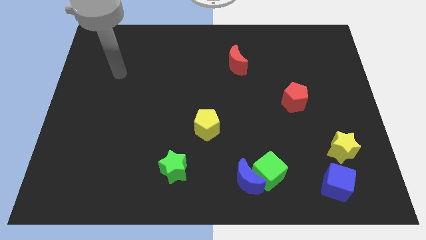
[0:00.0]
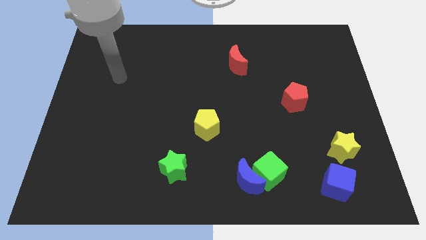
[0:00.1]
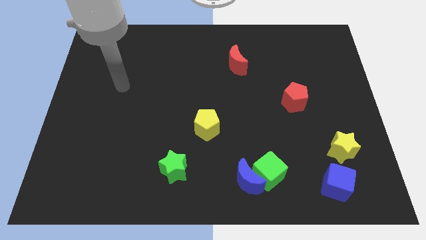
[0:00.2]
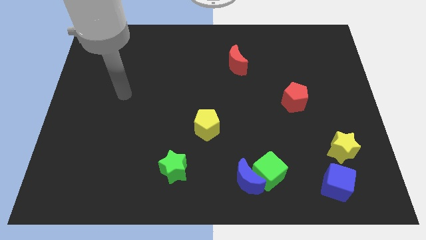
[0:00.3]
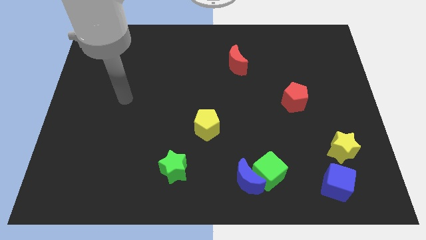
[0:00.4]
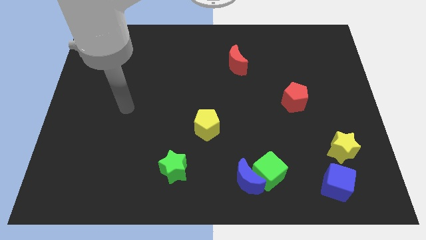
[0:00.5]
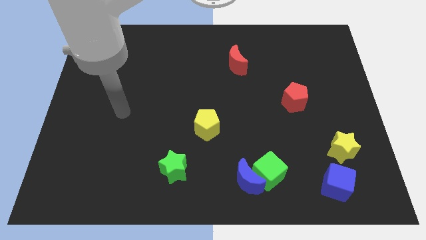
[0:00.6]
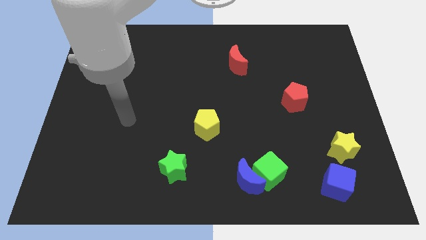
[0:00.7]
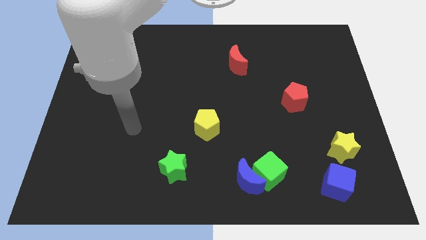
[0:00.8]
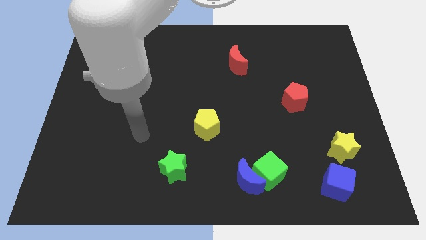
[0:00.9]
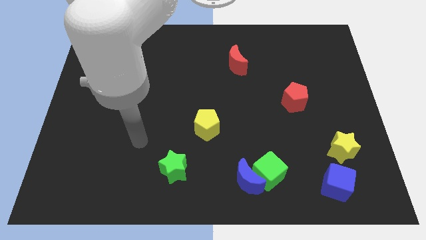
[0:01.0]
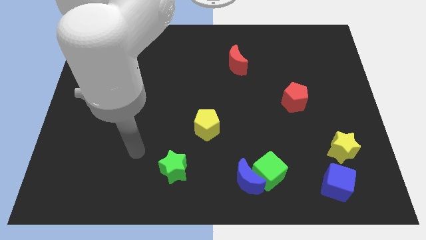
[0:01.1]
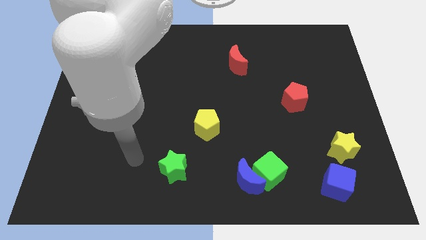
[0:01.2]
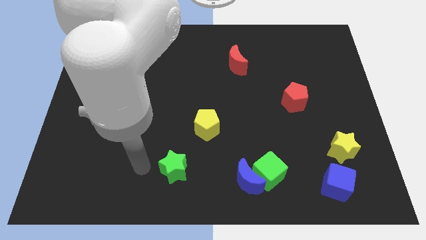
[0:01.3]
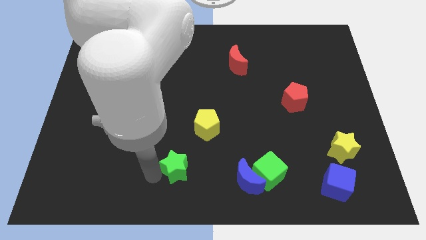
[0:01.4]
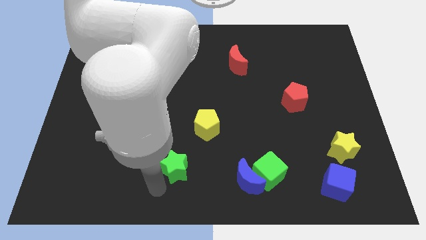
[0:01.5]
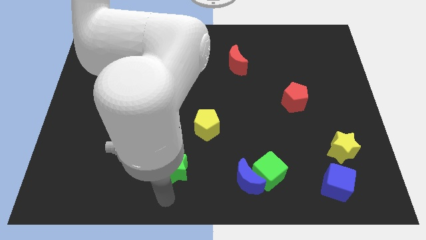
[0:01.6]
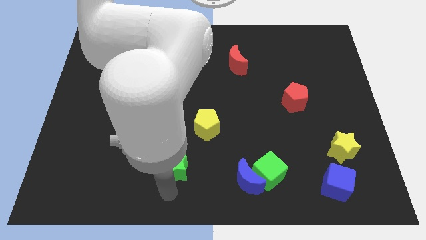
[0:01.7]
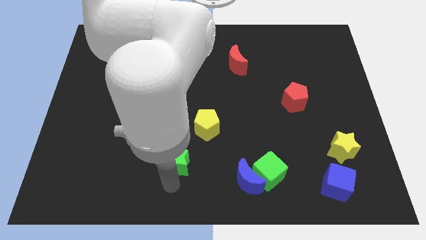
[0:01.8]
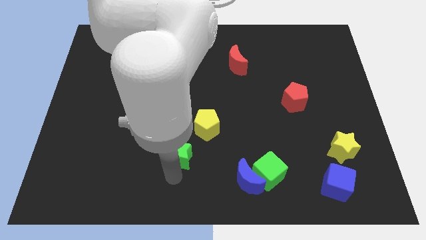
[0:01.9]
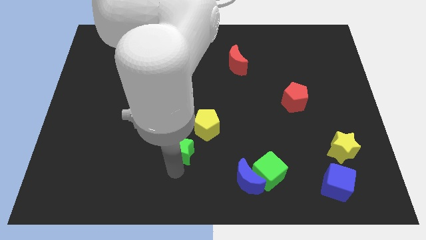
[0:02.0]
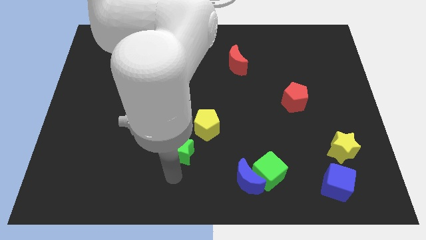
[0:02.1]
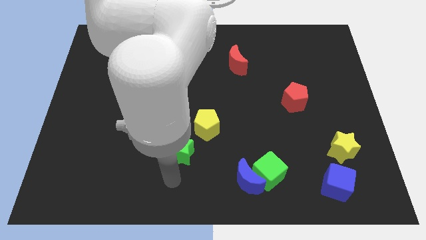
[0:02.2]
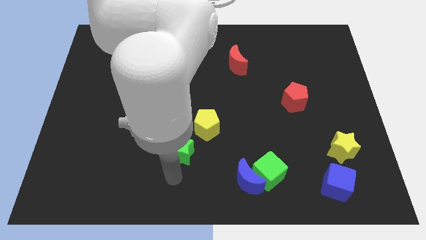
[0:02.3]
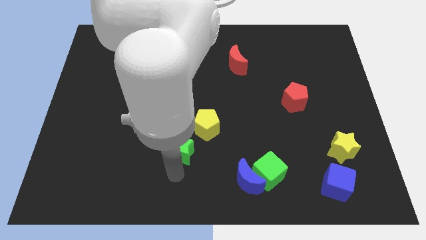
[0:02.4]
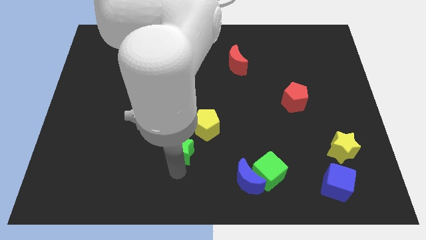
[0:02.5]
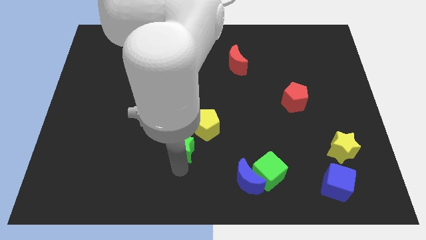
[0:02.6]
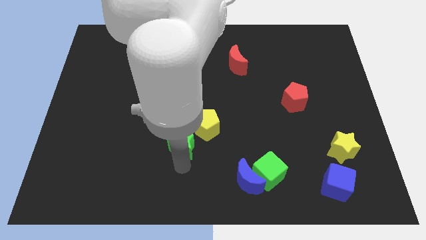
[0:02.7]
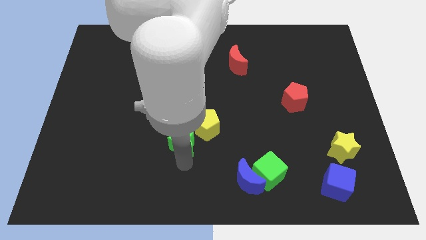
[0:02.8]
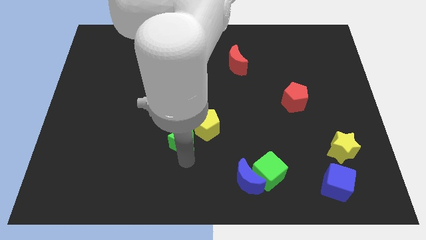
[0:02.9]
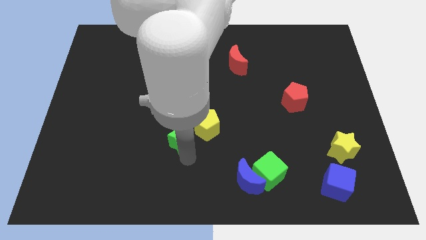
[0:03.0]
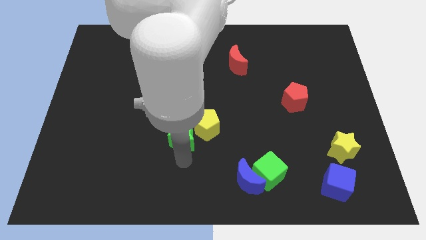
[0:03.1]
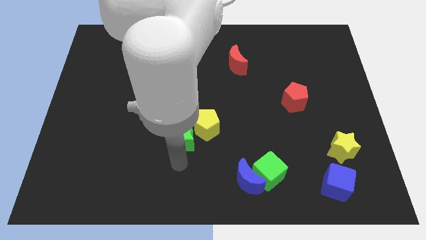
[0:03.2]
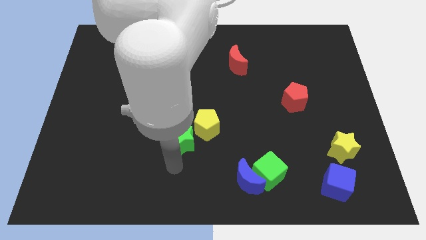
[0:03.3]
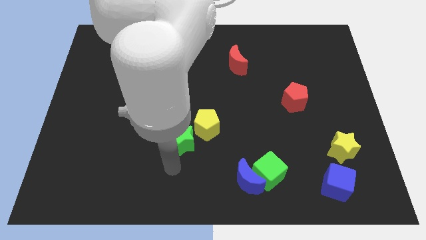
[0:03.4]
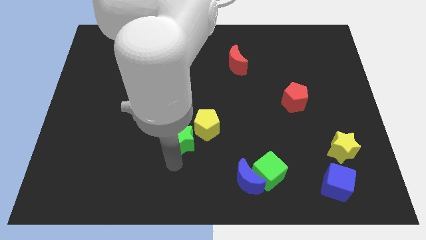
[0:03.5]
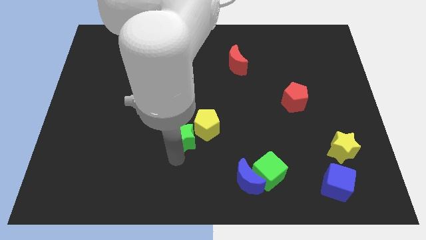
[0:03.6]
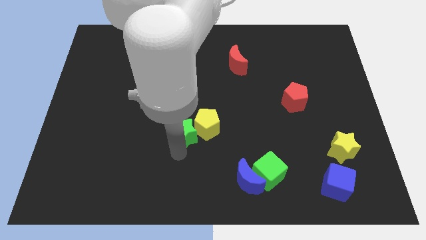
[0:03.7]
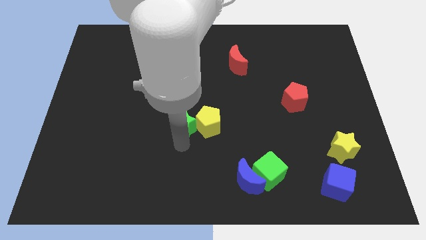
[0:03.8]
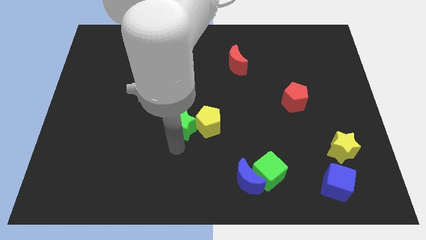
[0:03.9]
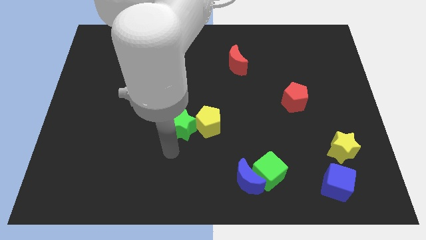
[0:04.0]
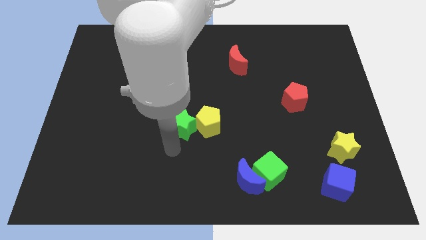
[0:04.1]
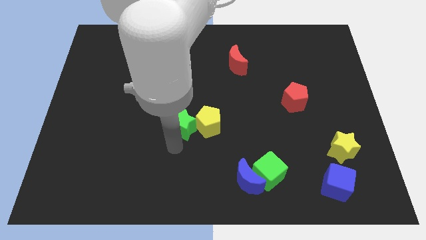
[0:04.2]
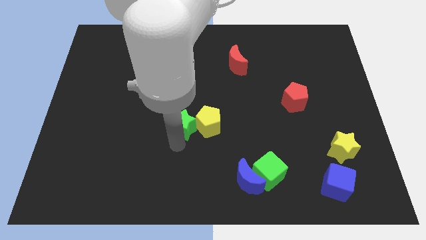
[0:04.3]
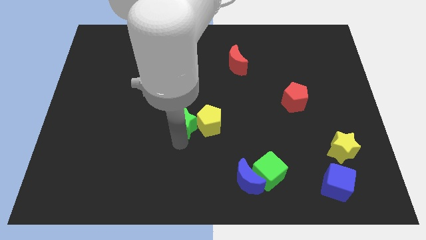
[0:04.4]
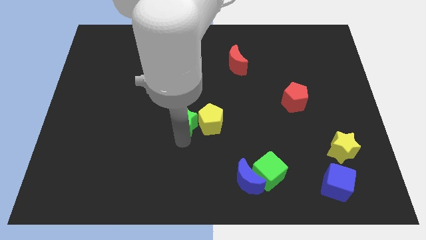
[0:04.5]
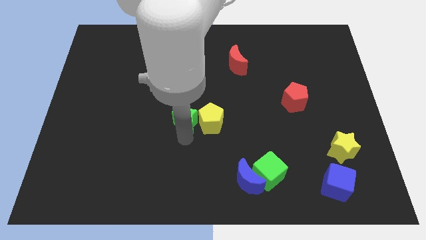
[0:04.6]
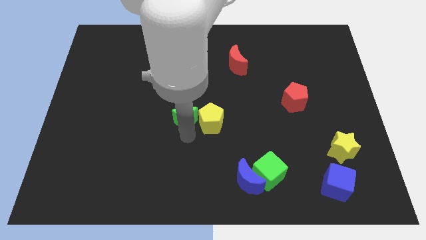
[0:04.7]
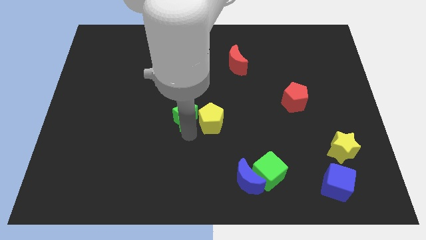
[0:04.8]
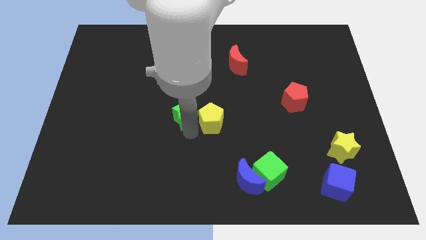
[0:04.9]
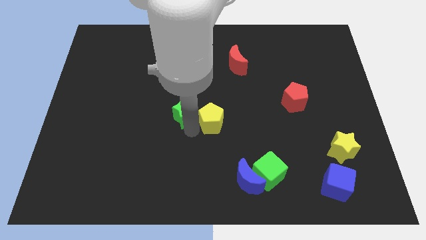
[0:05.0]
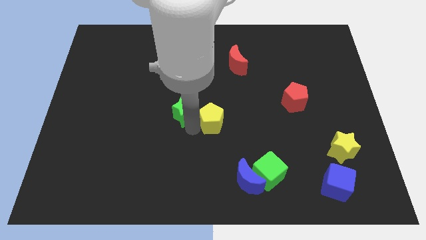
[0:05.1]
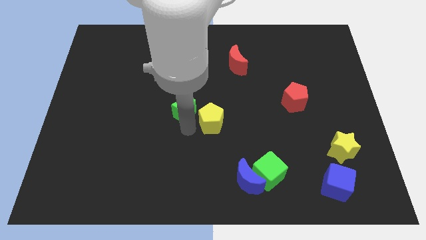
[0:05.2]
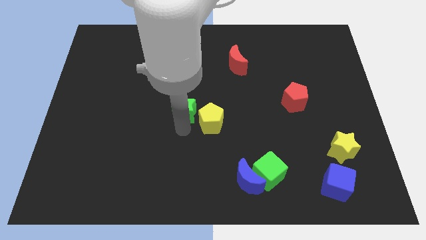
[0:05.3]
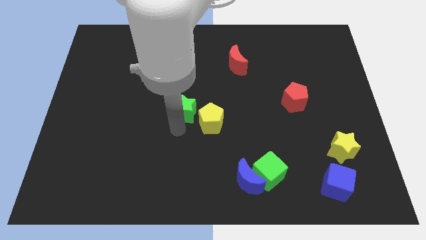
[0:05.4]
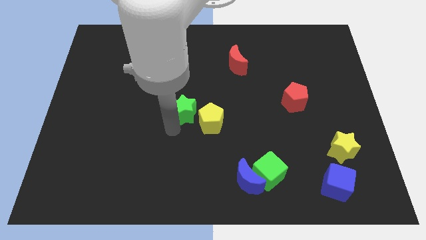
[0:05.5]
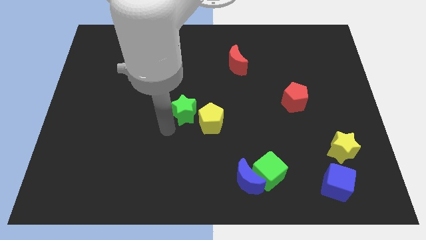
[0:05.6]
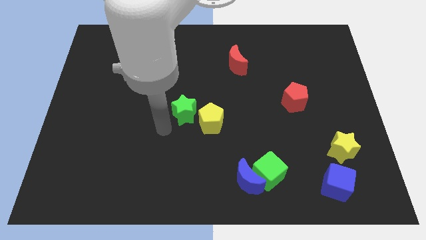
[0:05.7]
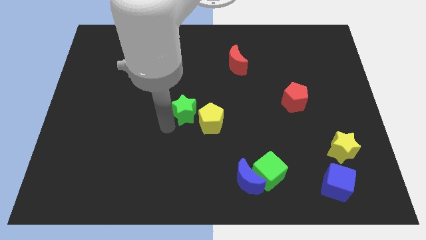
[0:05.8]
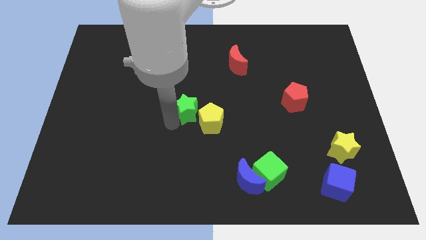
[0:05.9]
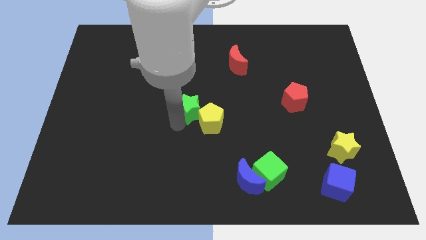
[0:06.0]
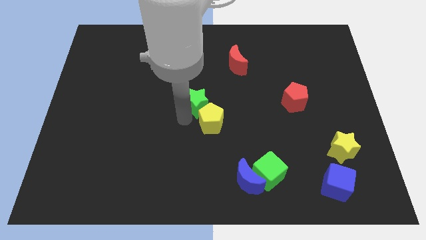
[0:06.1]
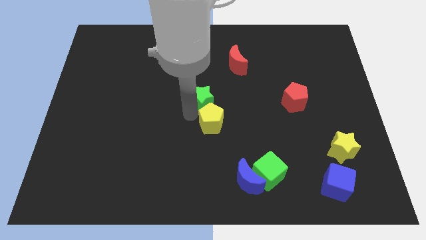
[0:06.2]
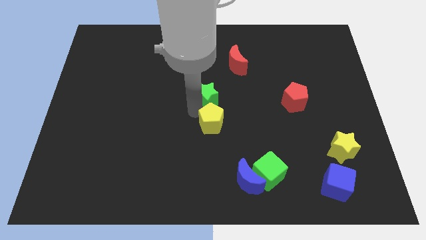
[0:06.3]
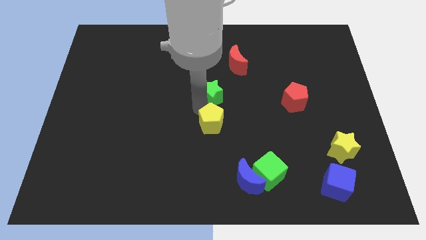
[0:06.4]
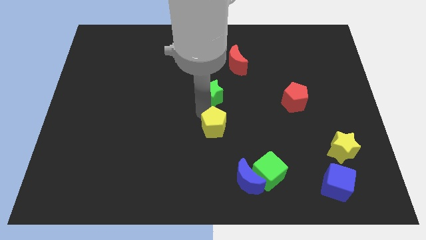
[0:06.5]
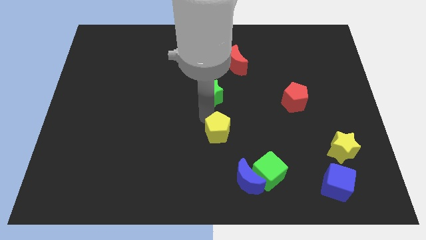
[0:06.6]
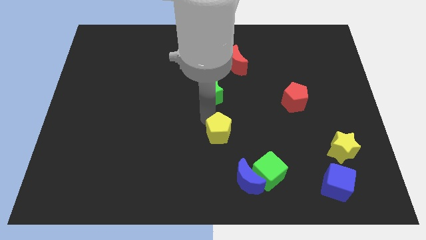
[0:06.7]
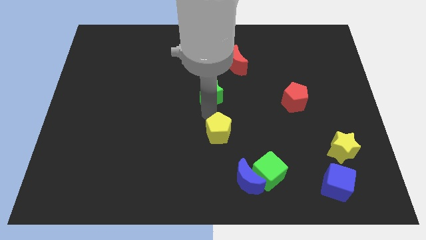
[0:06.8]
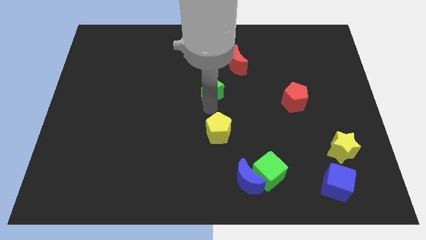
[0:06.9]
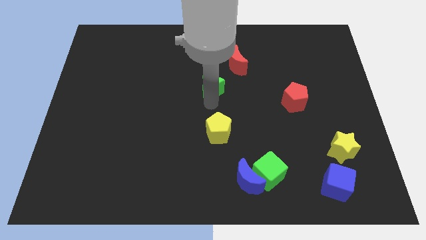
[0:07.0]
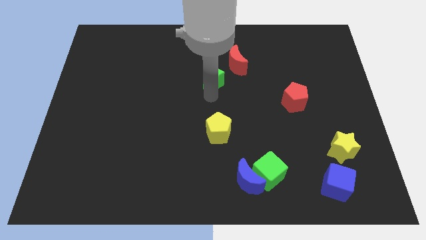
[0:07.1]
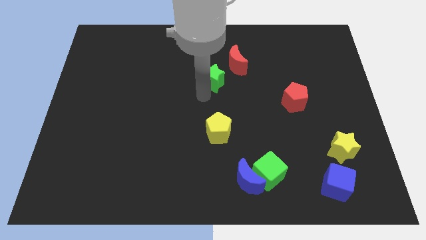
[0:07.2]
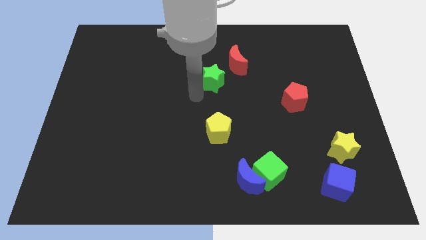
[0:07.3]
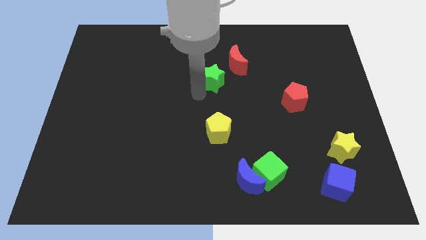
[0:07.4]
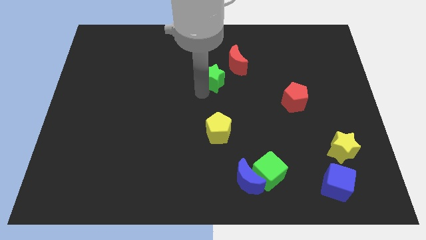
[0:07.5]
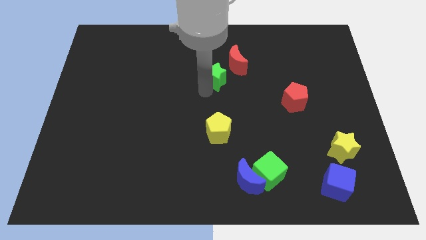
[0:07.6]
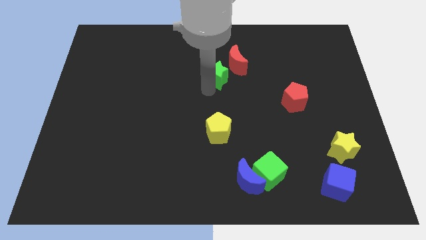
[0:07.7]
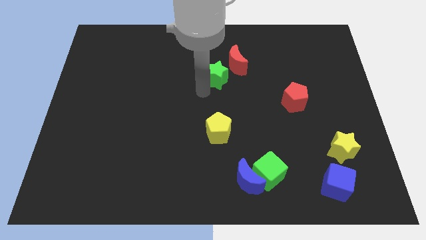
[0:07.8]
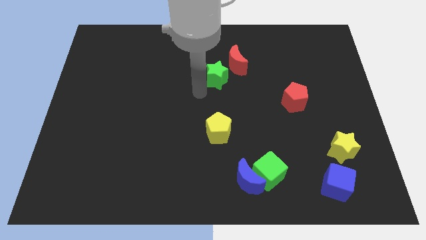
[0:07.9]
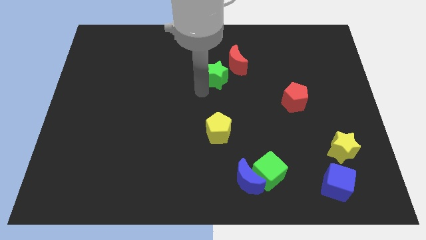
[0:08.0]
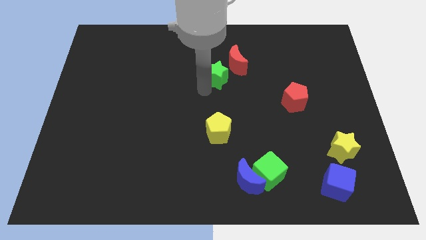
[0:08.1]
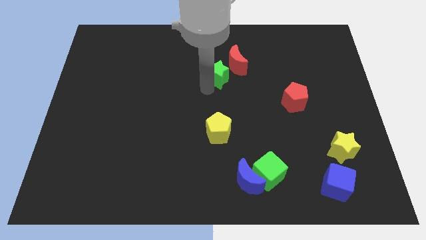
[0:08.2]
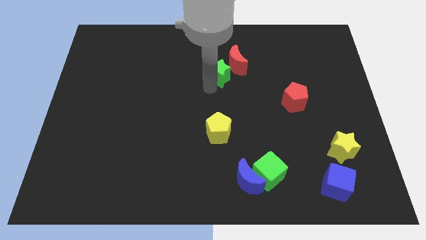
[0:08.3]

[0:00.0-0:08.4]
push the green star close to the red moon
